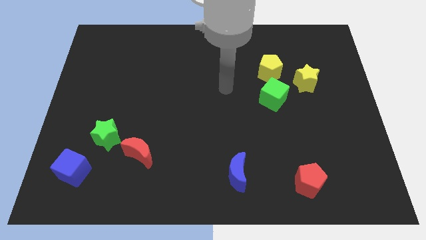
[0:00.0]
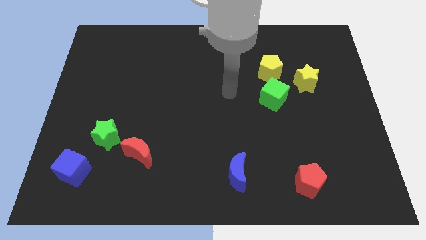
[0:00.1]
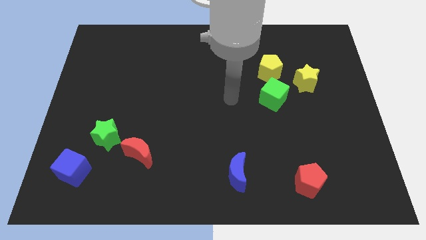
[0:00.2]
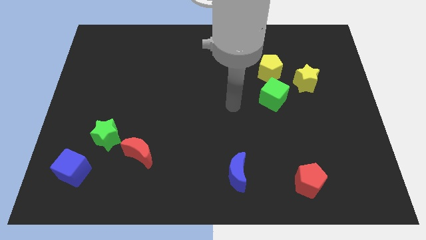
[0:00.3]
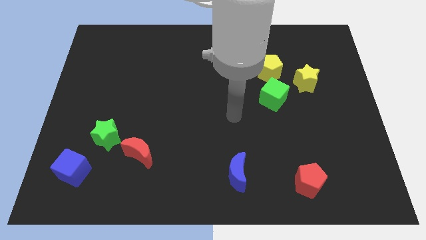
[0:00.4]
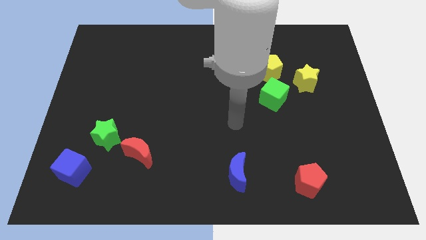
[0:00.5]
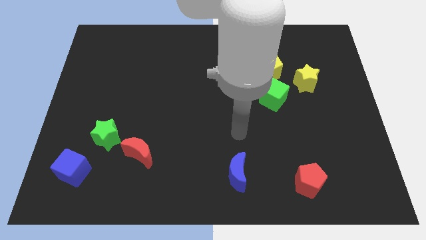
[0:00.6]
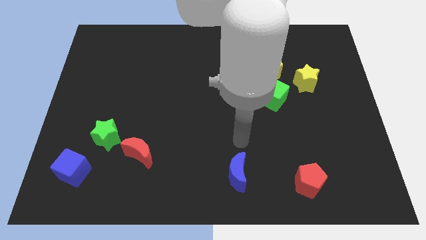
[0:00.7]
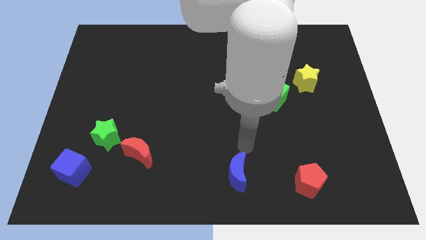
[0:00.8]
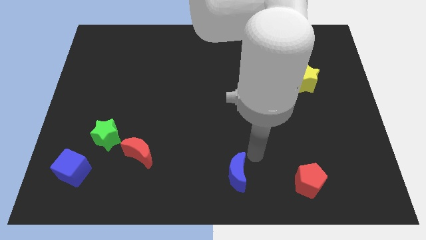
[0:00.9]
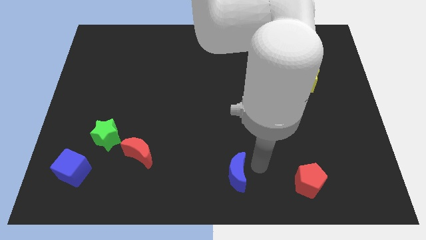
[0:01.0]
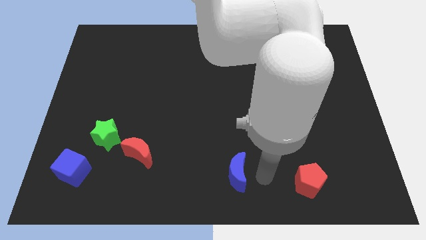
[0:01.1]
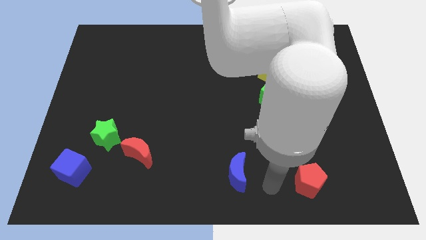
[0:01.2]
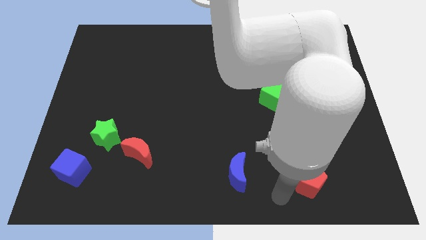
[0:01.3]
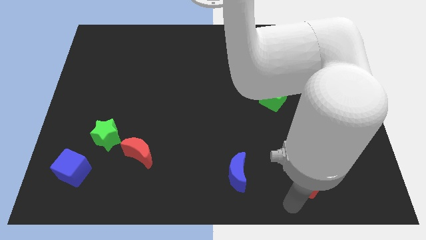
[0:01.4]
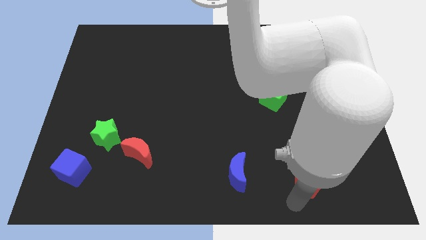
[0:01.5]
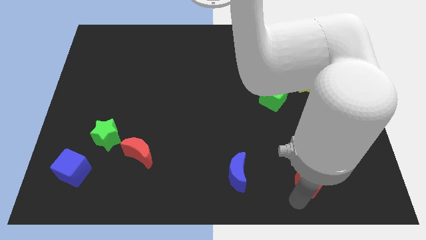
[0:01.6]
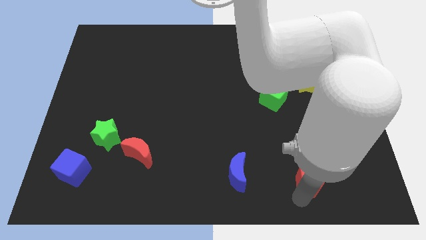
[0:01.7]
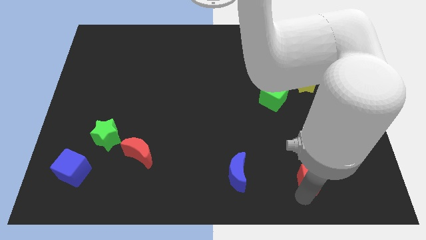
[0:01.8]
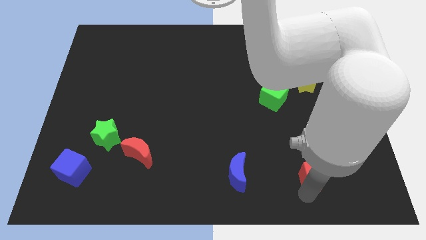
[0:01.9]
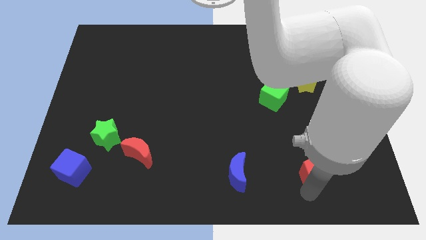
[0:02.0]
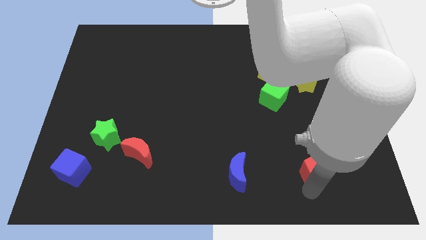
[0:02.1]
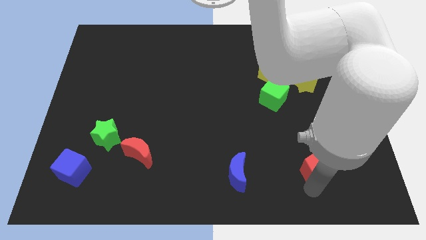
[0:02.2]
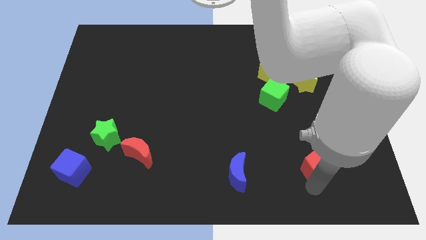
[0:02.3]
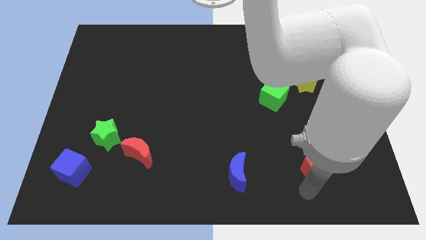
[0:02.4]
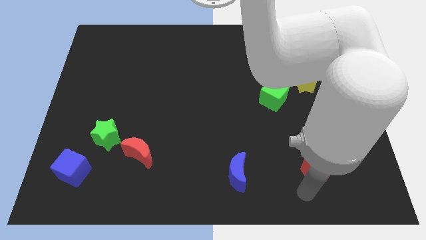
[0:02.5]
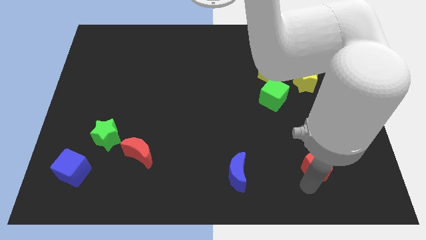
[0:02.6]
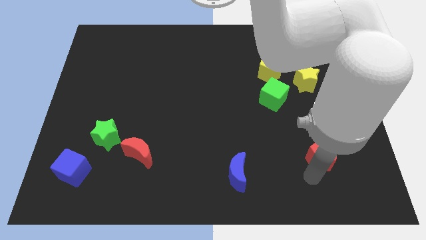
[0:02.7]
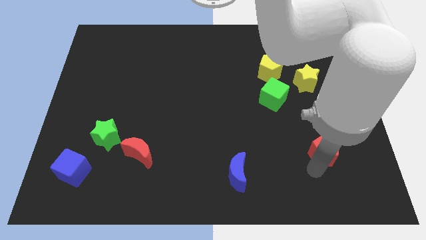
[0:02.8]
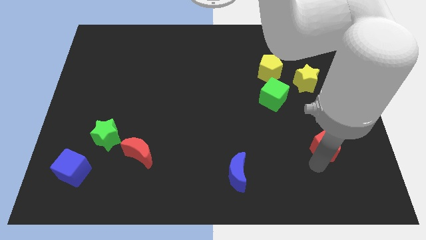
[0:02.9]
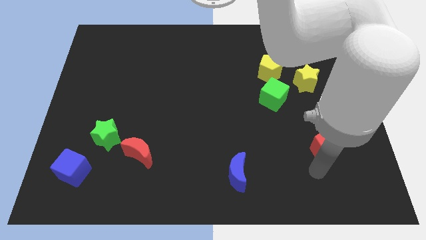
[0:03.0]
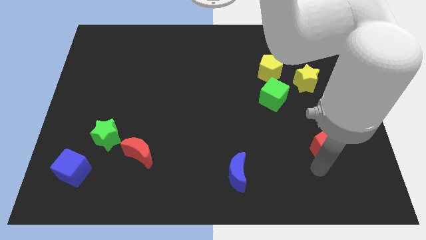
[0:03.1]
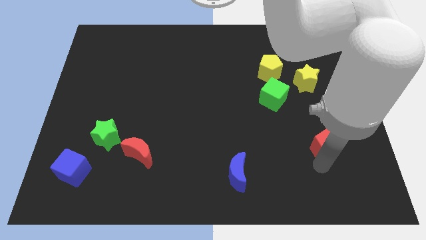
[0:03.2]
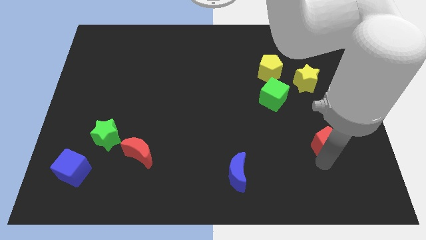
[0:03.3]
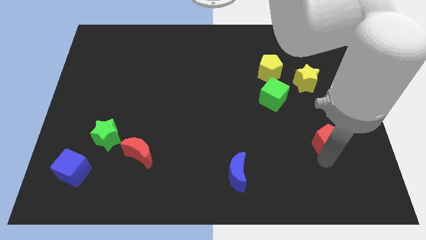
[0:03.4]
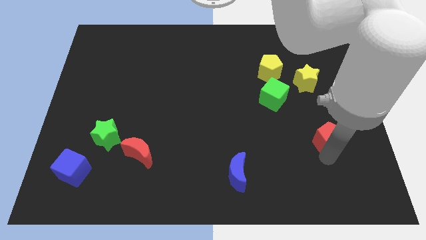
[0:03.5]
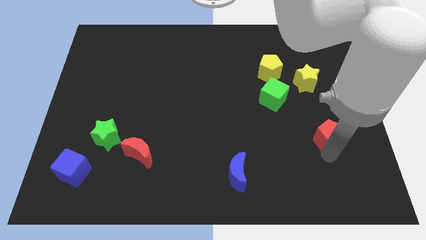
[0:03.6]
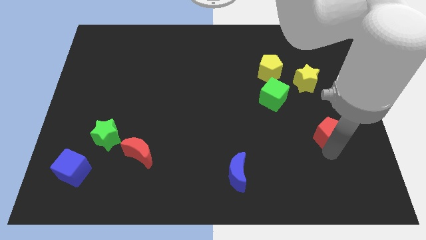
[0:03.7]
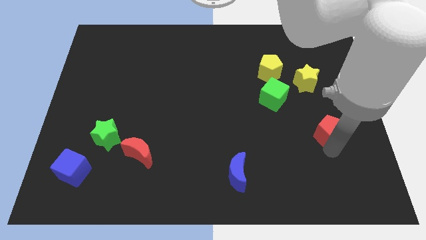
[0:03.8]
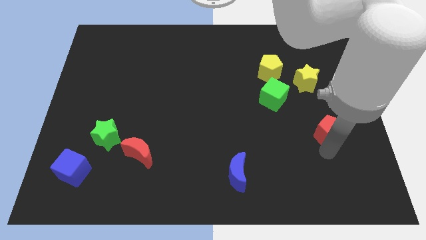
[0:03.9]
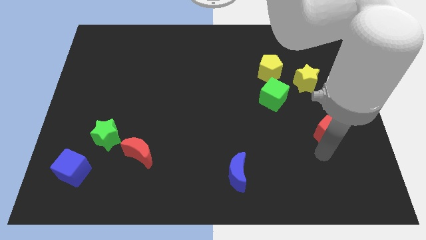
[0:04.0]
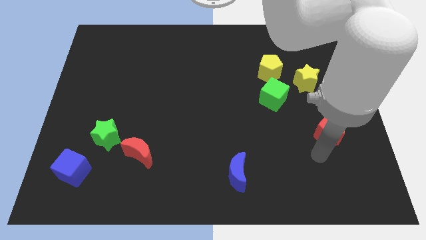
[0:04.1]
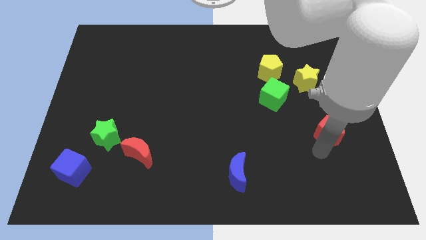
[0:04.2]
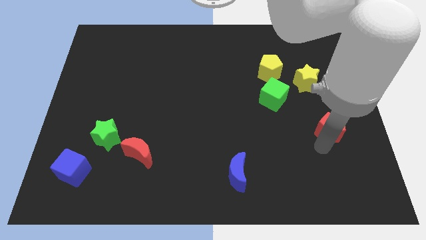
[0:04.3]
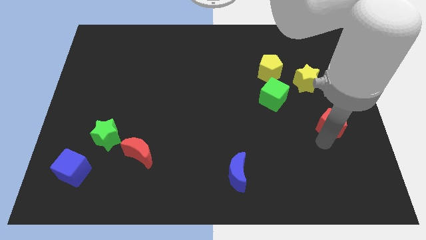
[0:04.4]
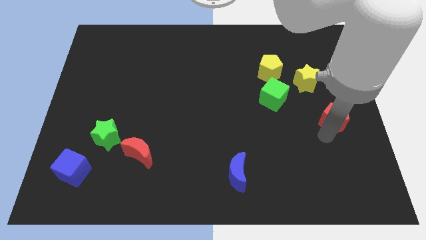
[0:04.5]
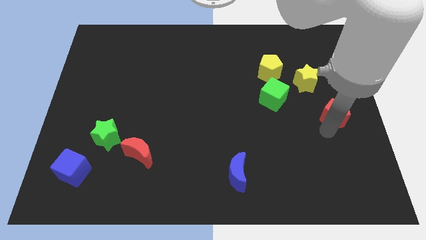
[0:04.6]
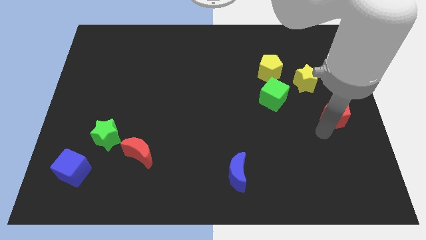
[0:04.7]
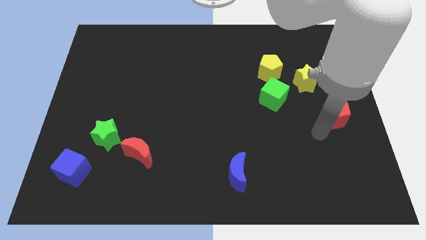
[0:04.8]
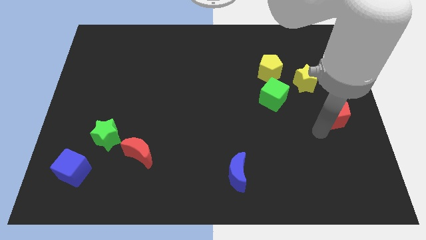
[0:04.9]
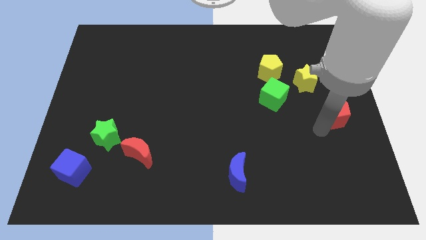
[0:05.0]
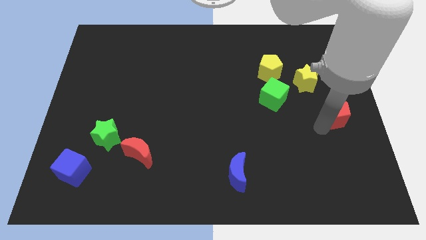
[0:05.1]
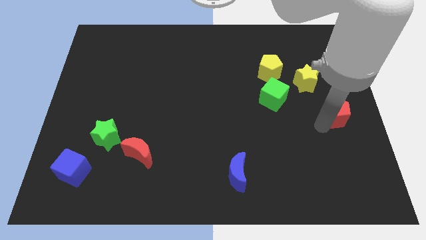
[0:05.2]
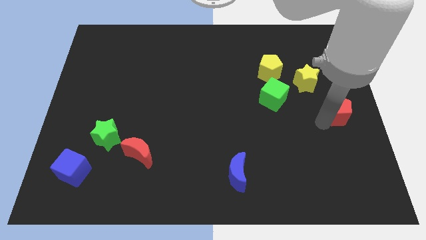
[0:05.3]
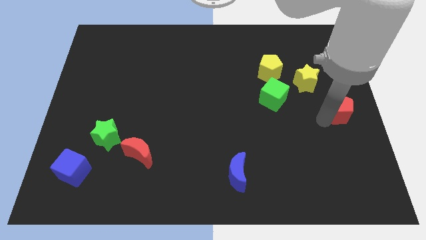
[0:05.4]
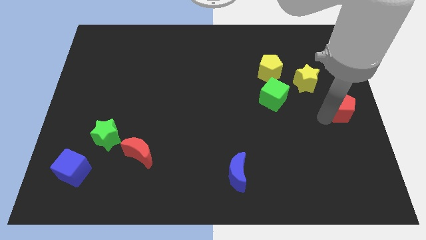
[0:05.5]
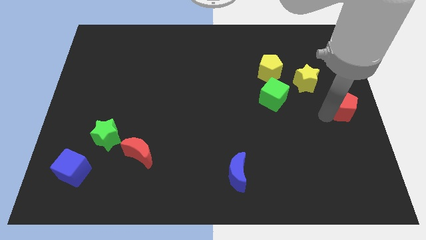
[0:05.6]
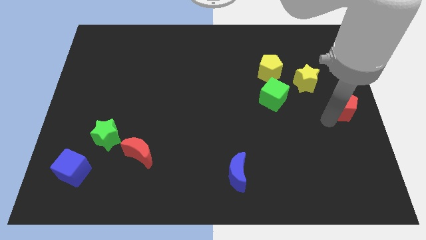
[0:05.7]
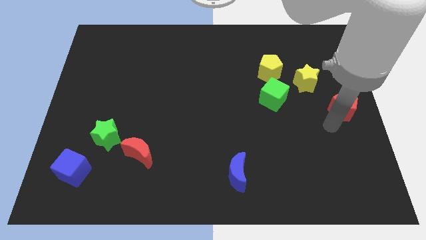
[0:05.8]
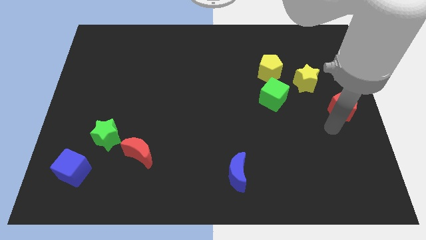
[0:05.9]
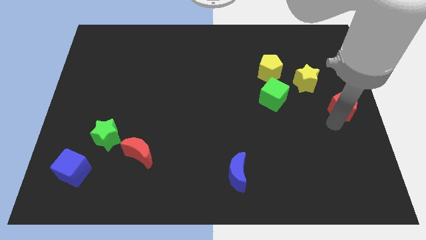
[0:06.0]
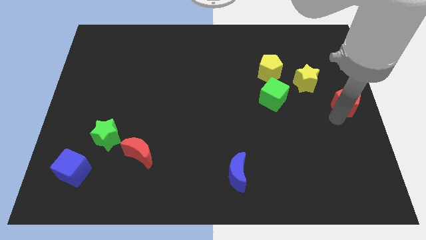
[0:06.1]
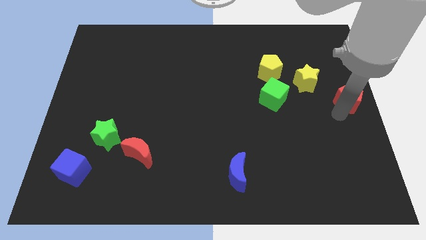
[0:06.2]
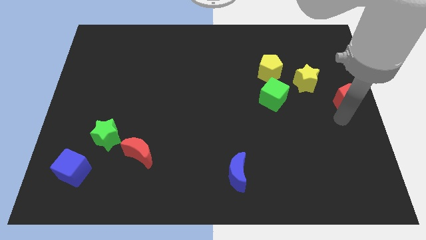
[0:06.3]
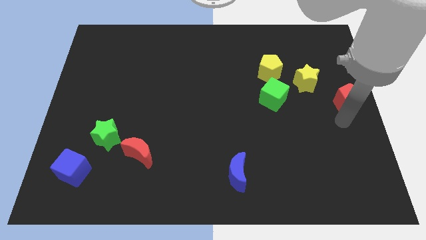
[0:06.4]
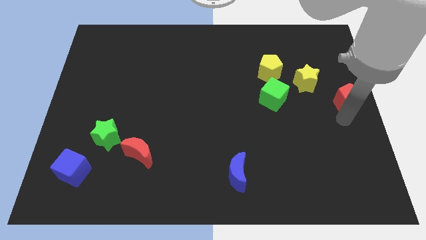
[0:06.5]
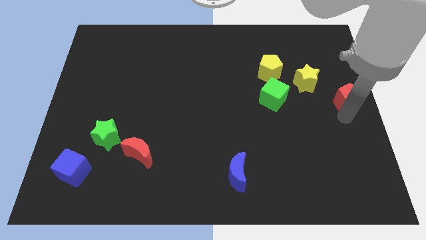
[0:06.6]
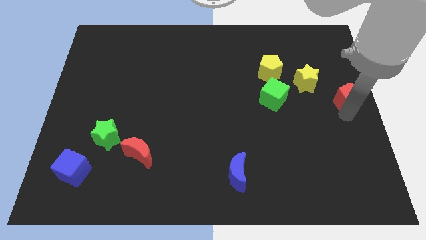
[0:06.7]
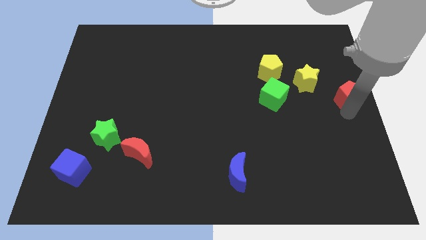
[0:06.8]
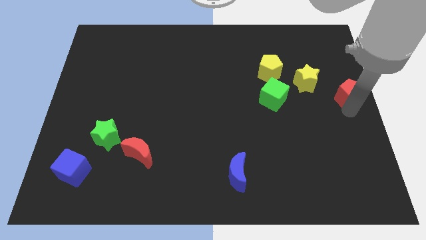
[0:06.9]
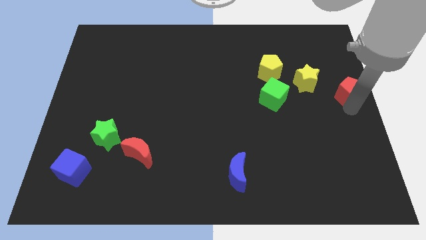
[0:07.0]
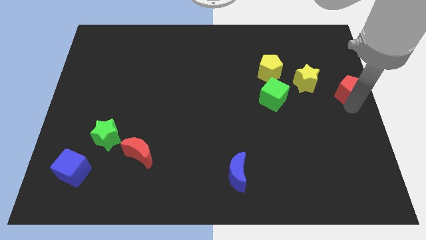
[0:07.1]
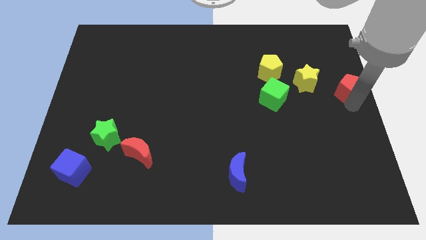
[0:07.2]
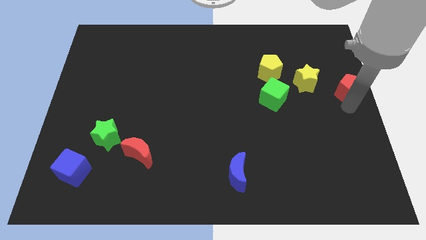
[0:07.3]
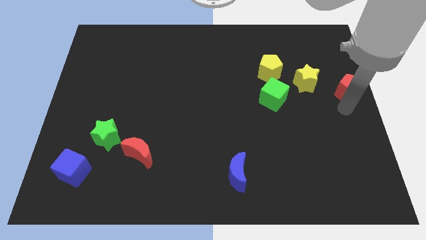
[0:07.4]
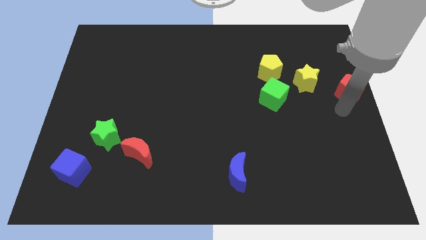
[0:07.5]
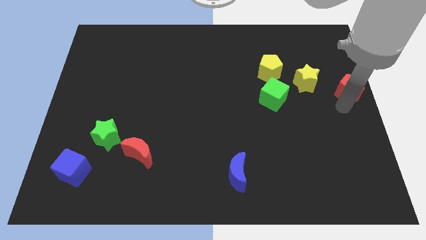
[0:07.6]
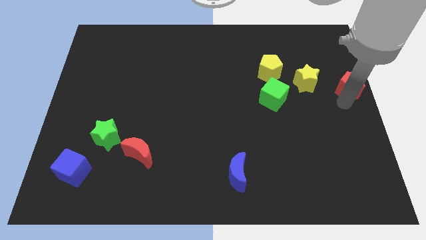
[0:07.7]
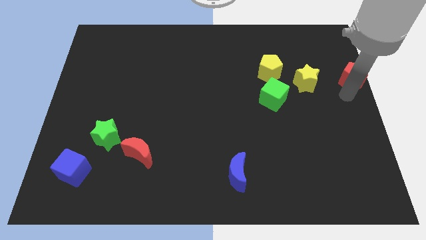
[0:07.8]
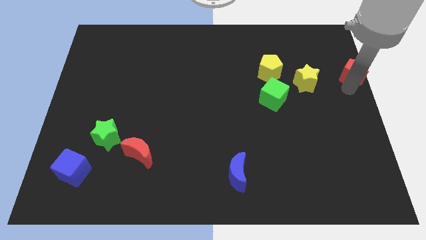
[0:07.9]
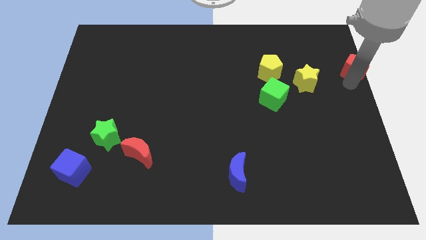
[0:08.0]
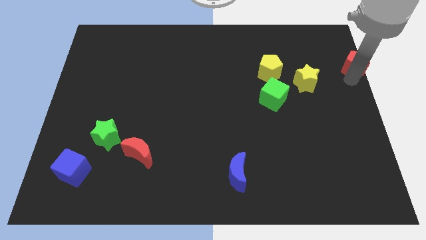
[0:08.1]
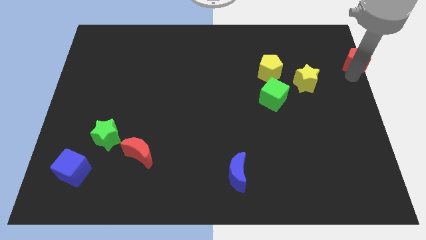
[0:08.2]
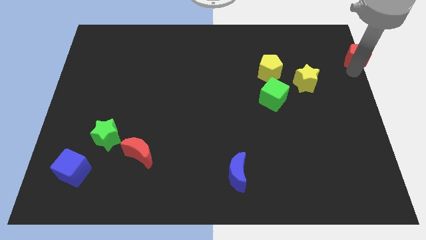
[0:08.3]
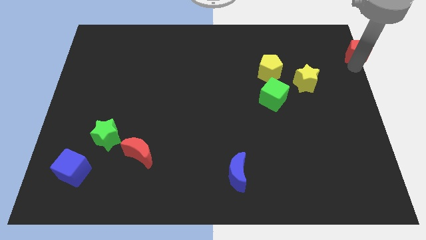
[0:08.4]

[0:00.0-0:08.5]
move the red pentagon to the top right corner
